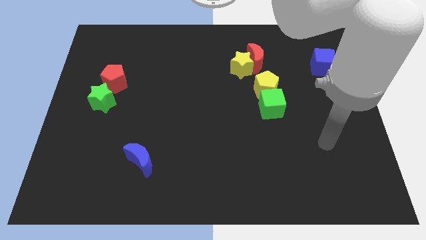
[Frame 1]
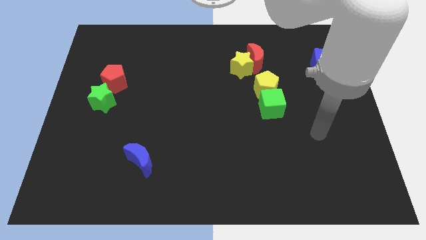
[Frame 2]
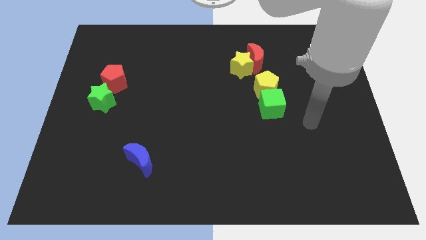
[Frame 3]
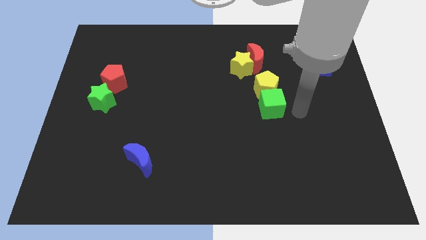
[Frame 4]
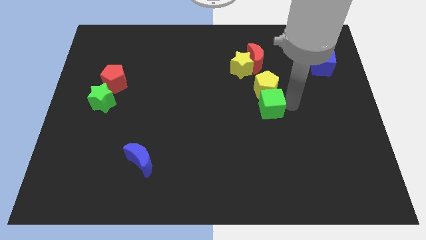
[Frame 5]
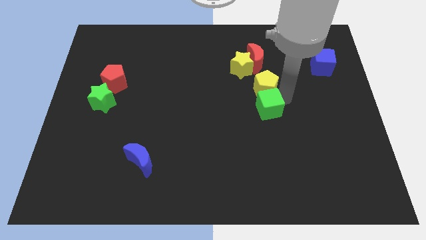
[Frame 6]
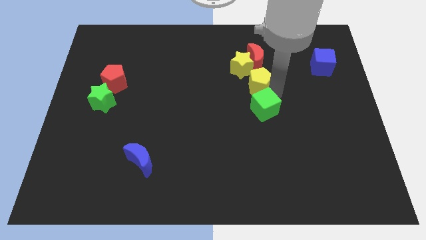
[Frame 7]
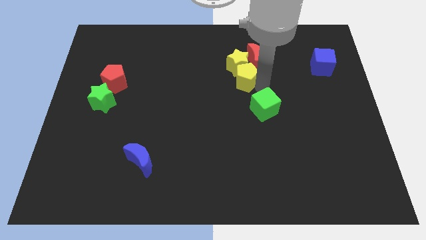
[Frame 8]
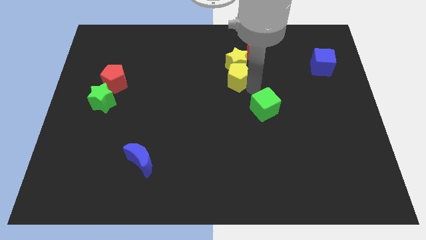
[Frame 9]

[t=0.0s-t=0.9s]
pull the green cube apart from the yellow pentagon

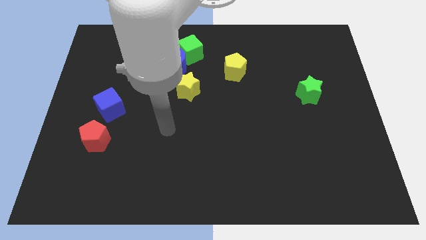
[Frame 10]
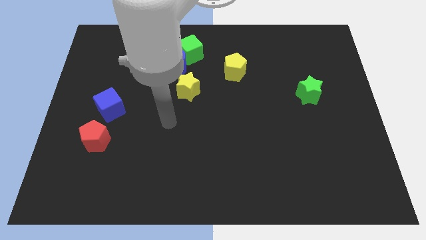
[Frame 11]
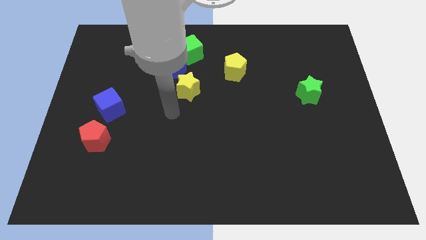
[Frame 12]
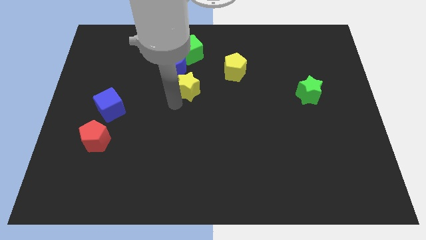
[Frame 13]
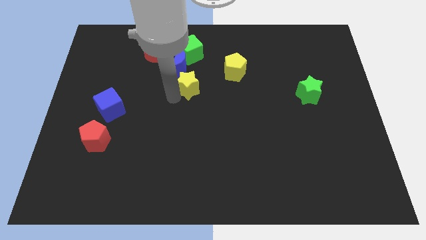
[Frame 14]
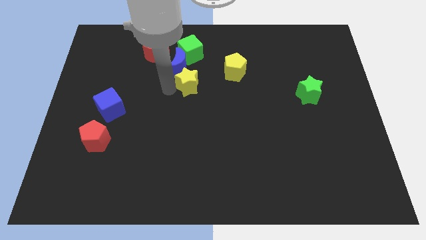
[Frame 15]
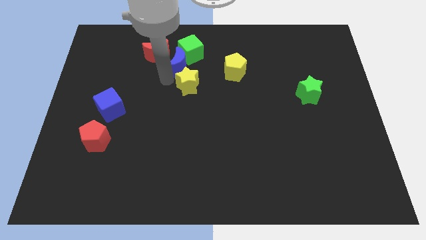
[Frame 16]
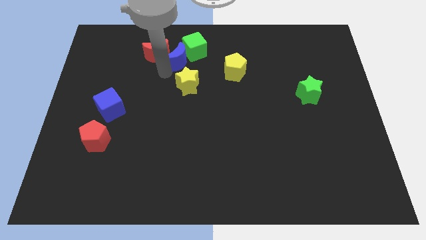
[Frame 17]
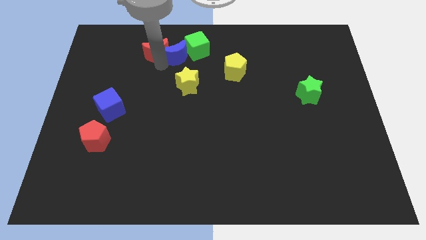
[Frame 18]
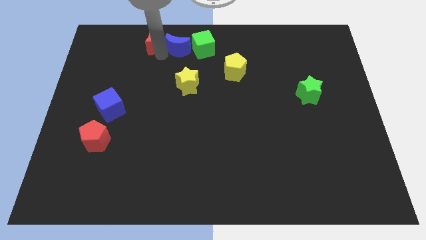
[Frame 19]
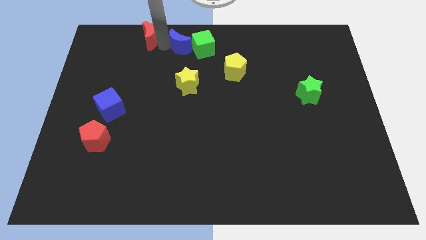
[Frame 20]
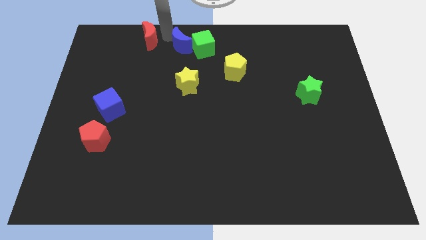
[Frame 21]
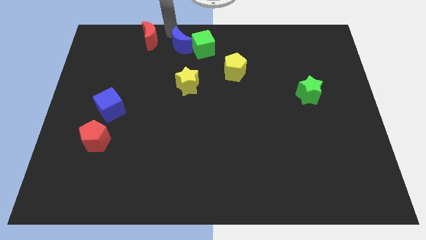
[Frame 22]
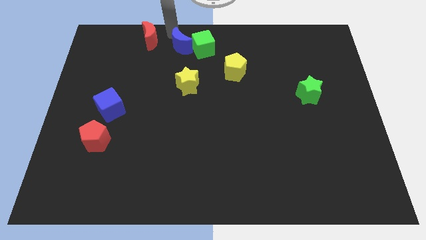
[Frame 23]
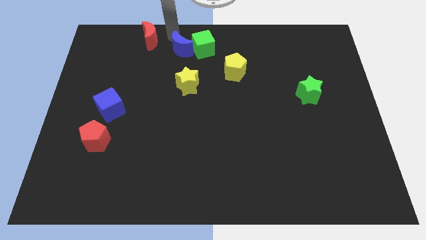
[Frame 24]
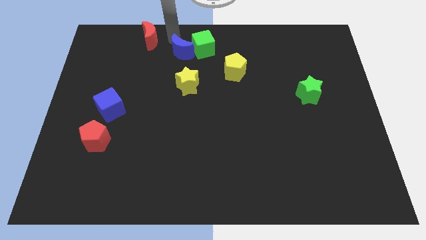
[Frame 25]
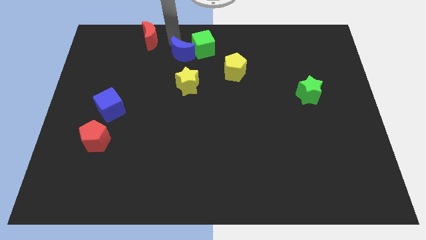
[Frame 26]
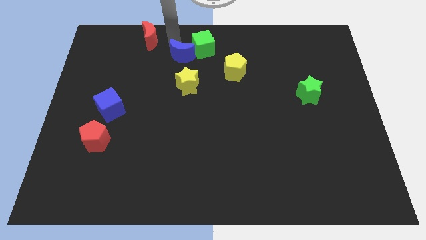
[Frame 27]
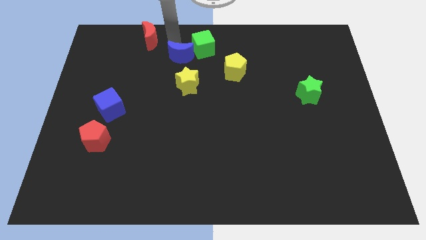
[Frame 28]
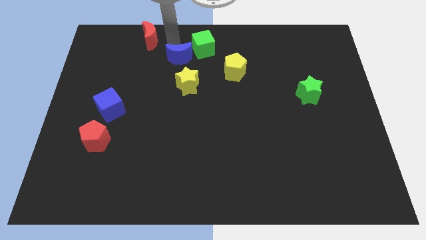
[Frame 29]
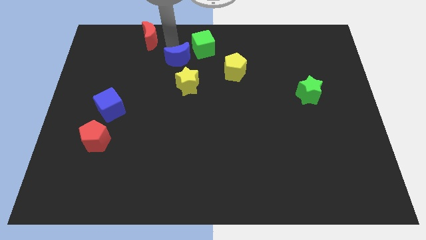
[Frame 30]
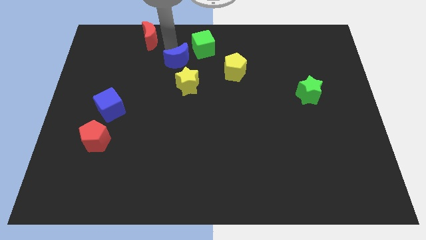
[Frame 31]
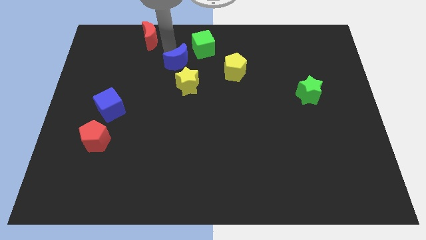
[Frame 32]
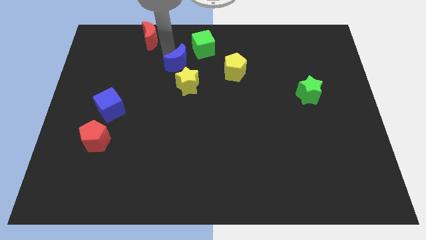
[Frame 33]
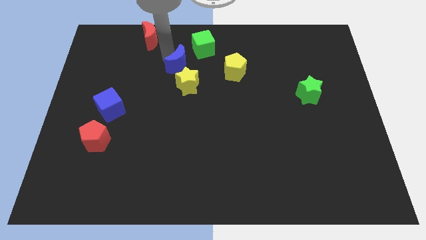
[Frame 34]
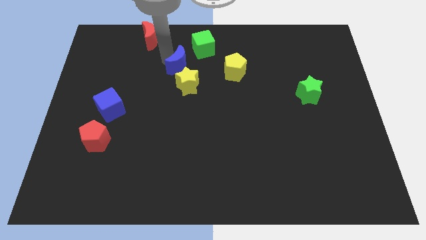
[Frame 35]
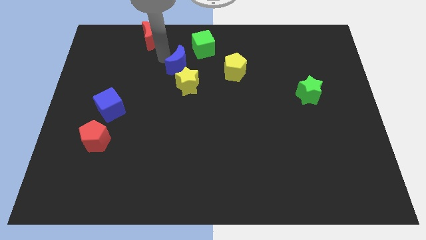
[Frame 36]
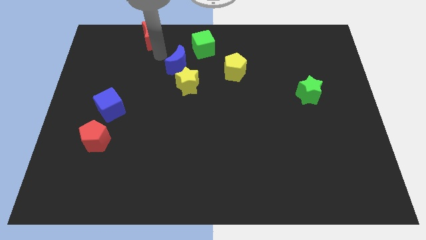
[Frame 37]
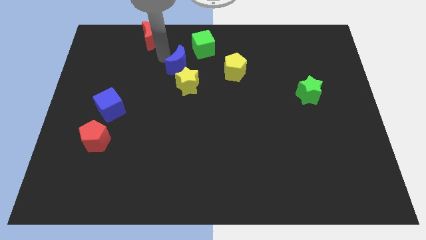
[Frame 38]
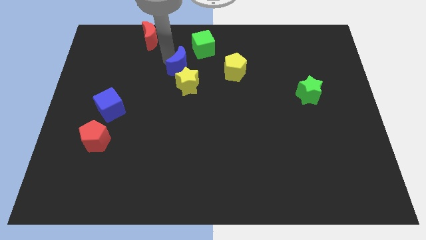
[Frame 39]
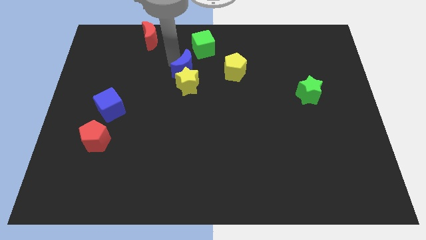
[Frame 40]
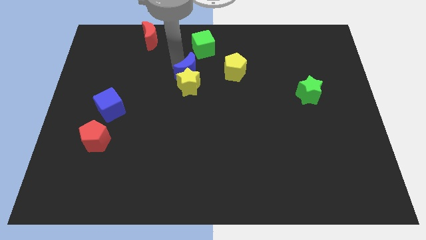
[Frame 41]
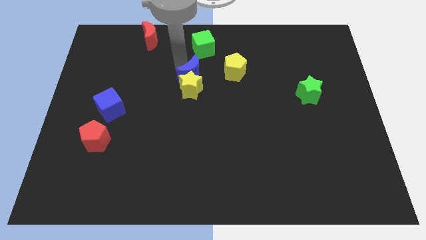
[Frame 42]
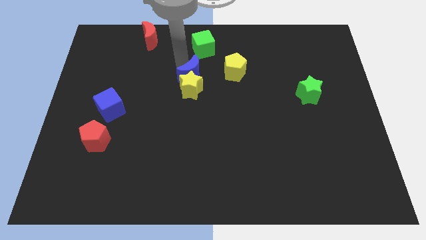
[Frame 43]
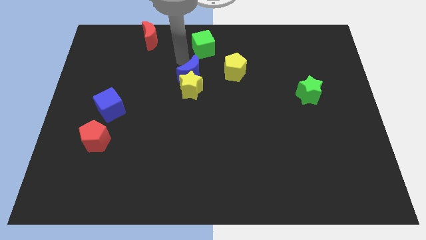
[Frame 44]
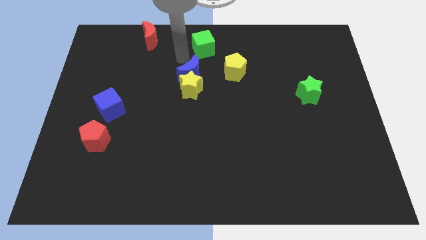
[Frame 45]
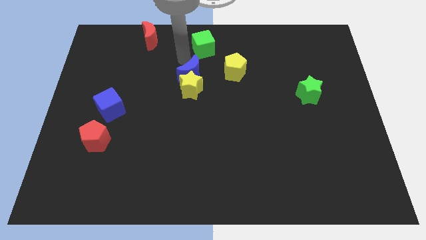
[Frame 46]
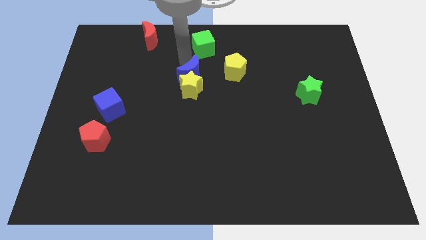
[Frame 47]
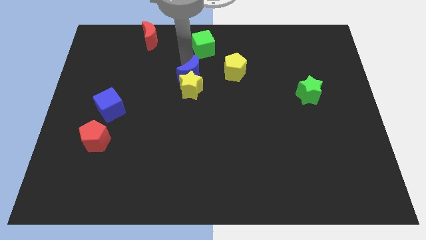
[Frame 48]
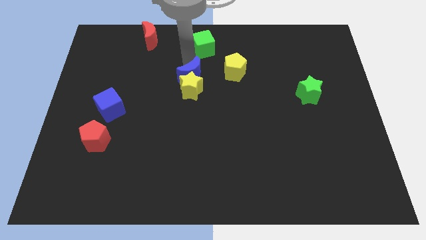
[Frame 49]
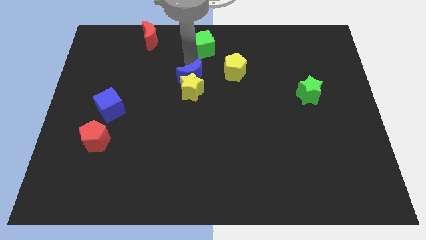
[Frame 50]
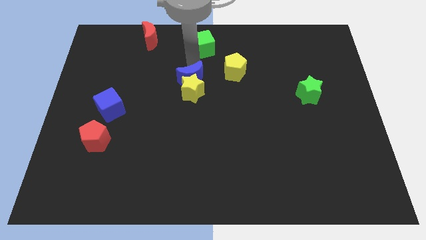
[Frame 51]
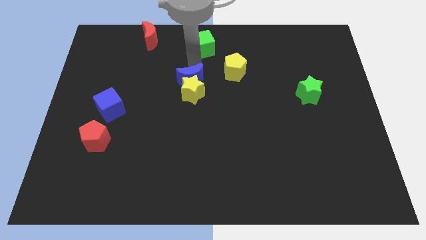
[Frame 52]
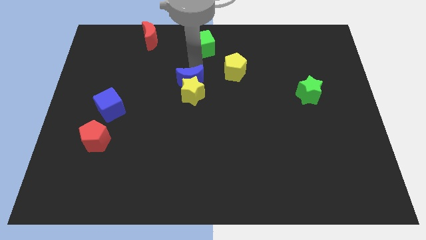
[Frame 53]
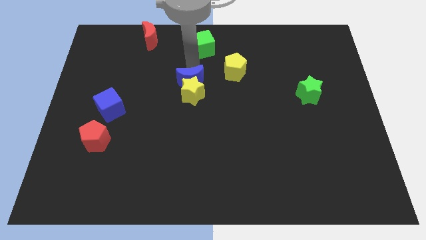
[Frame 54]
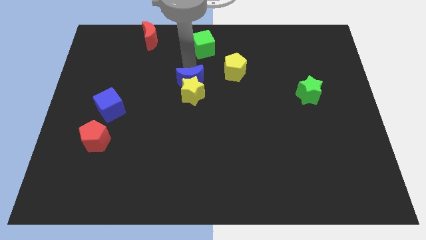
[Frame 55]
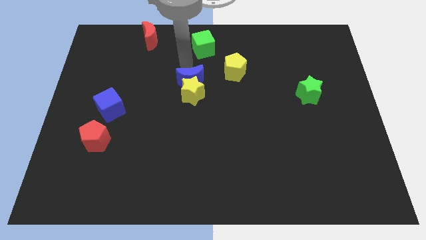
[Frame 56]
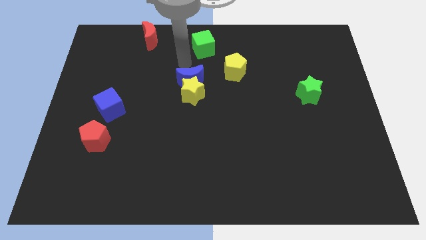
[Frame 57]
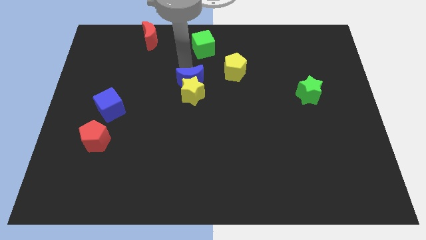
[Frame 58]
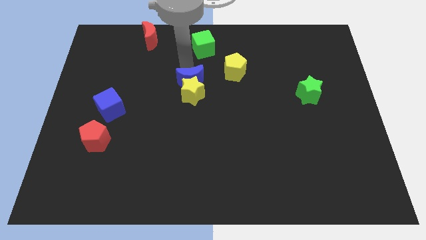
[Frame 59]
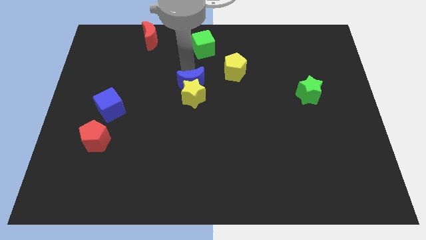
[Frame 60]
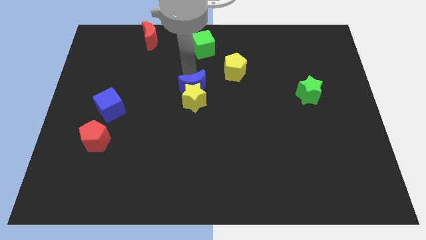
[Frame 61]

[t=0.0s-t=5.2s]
pull the blue moon apart from the green cube, red moon, and yellow star

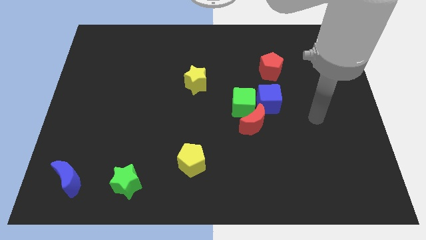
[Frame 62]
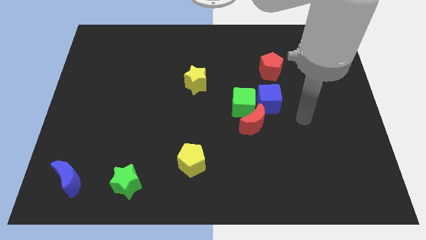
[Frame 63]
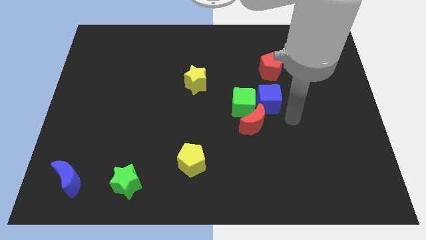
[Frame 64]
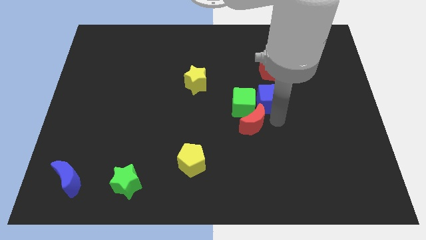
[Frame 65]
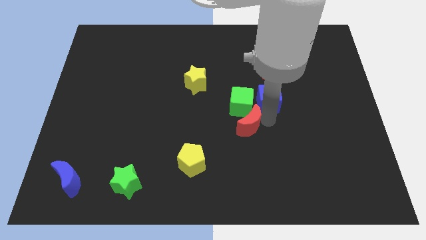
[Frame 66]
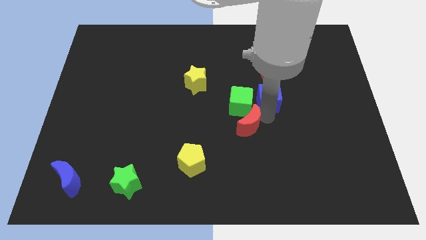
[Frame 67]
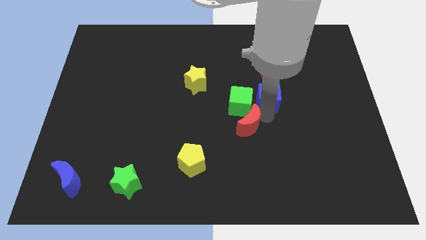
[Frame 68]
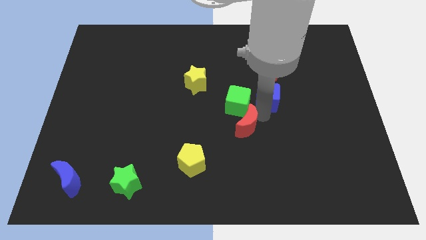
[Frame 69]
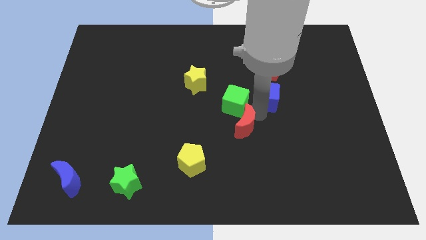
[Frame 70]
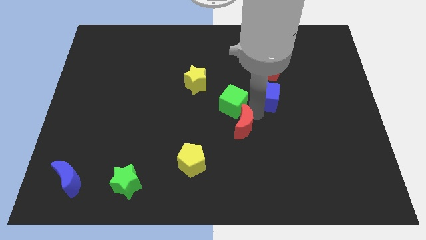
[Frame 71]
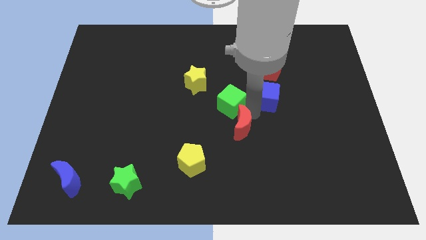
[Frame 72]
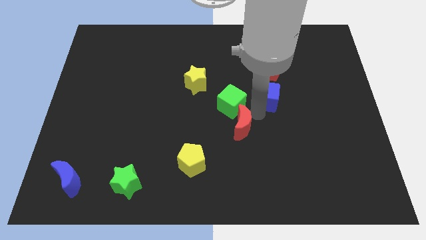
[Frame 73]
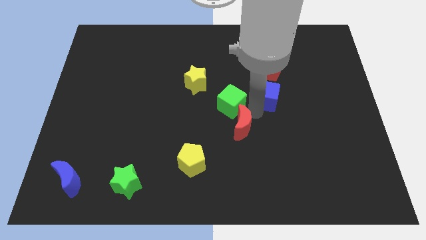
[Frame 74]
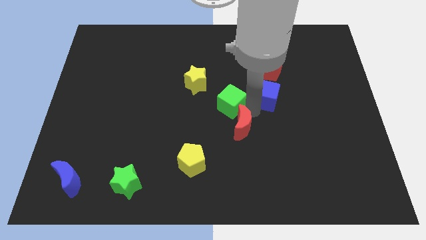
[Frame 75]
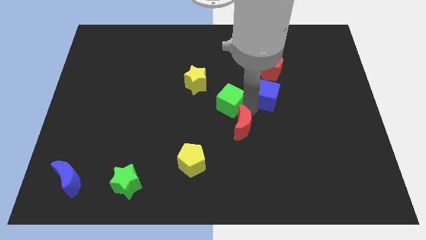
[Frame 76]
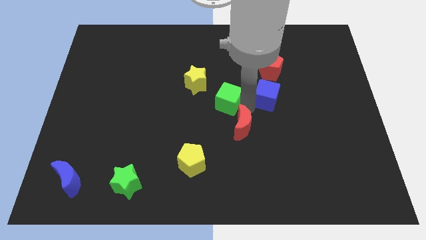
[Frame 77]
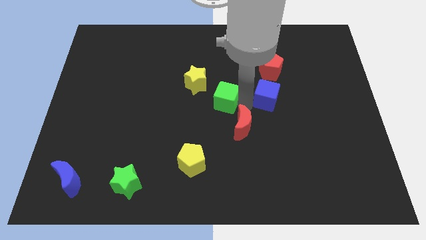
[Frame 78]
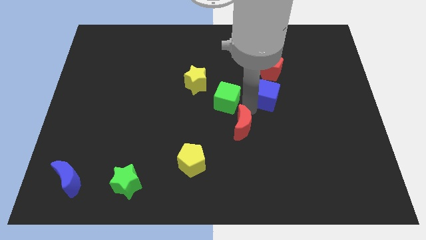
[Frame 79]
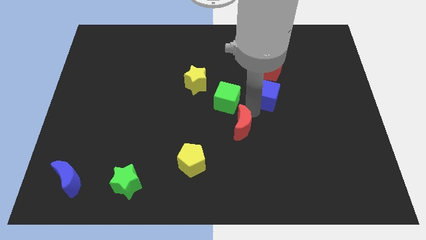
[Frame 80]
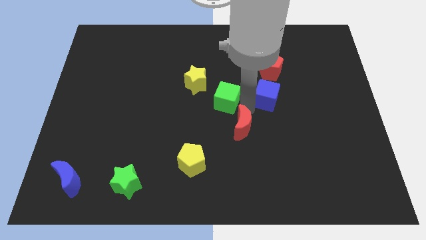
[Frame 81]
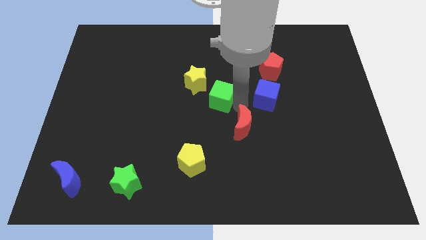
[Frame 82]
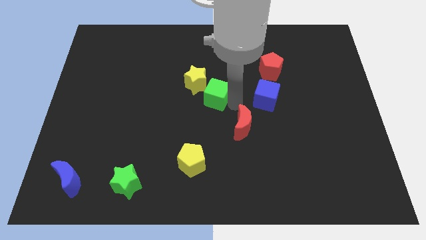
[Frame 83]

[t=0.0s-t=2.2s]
move the green cube away from the red moon and blue cube

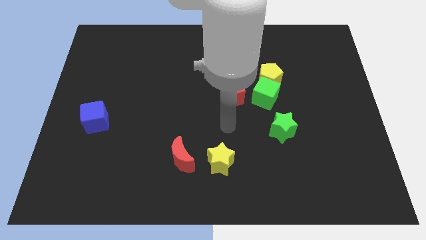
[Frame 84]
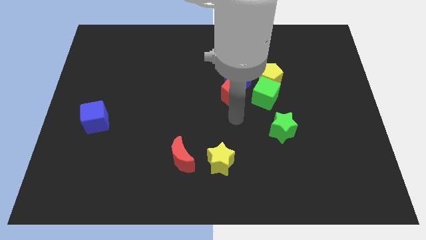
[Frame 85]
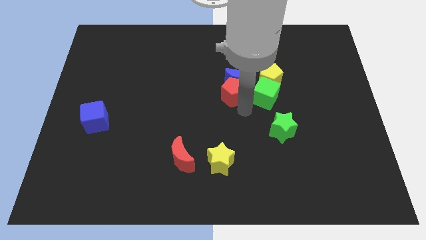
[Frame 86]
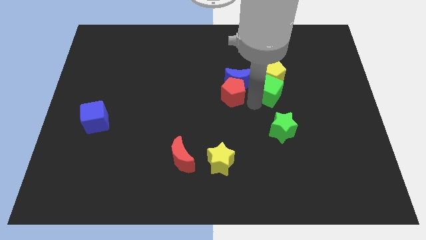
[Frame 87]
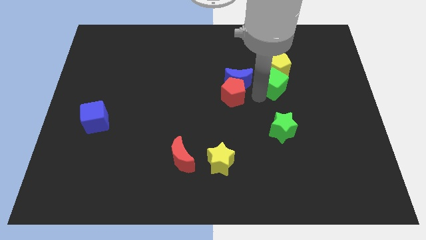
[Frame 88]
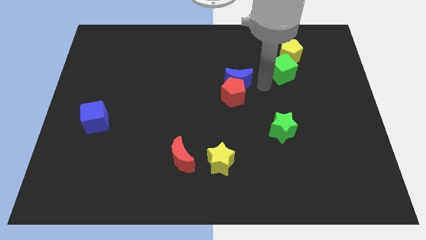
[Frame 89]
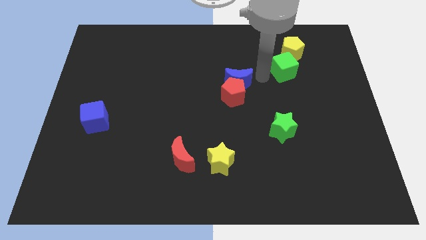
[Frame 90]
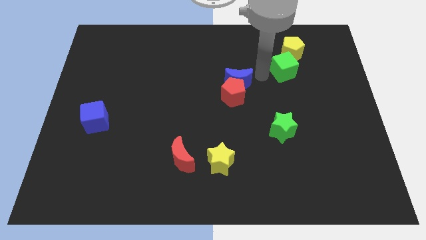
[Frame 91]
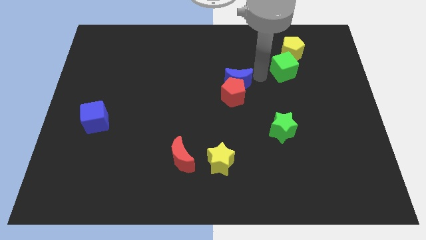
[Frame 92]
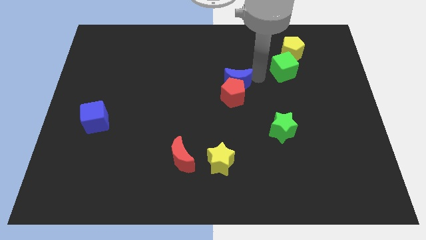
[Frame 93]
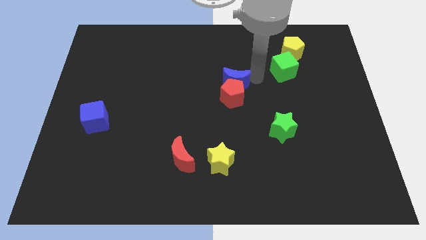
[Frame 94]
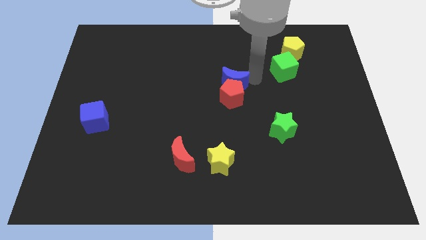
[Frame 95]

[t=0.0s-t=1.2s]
separate the blue moon from the red pentagon, yellow pentagon, and green cube
